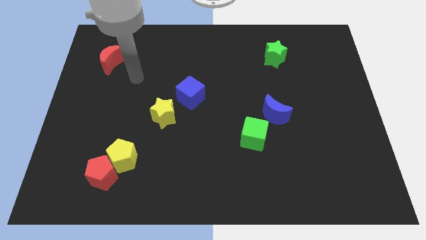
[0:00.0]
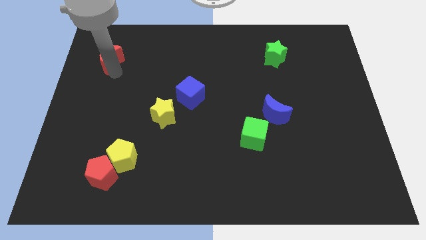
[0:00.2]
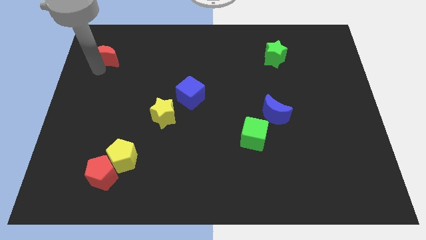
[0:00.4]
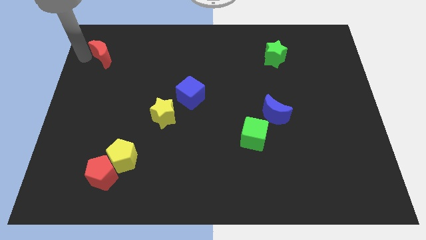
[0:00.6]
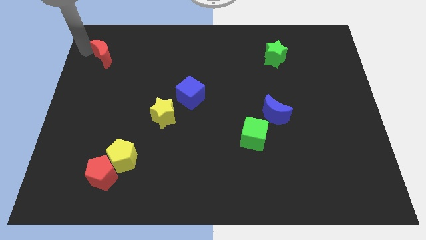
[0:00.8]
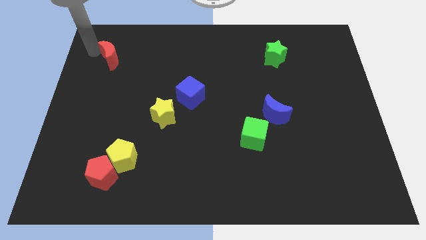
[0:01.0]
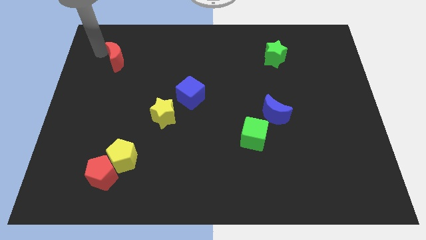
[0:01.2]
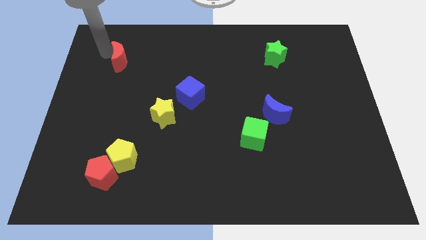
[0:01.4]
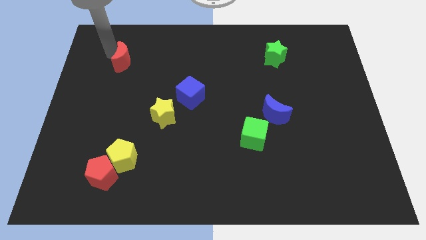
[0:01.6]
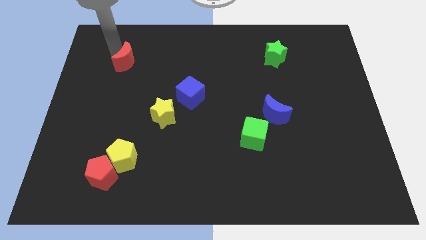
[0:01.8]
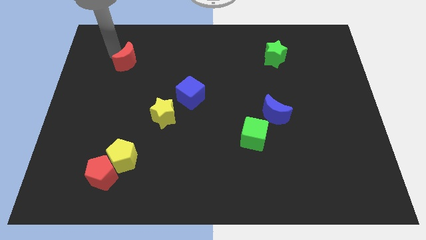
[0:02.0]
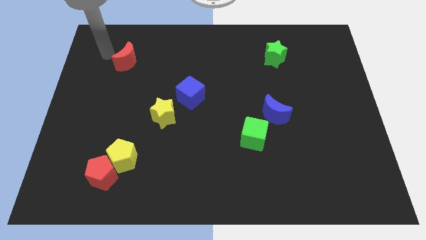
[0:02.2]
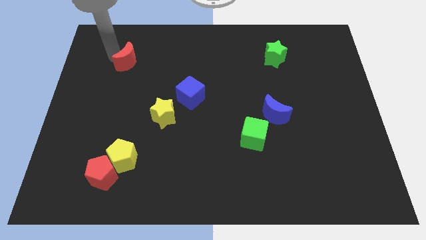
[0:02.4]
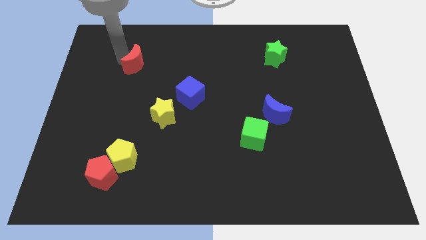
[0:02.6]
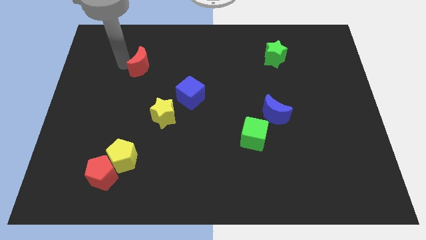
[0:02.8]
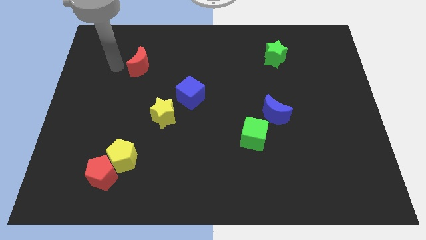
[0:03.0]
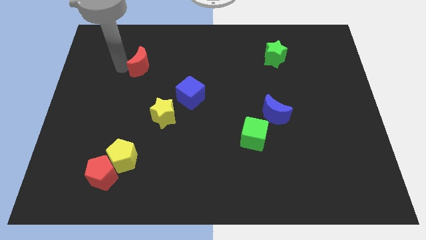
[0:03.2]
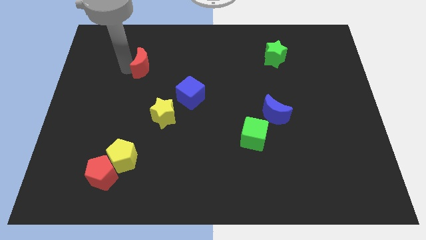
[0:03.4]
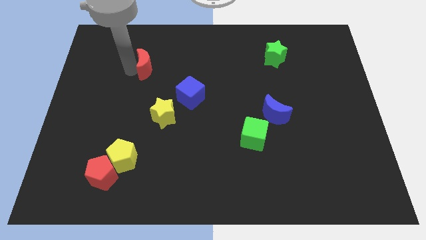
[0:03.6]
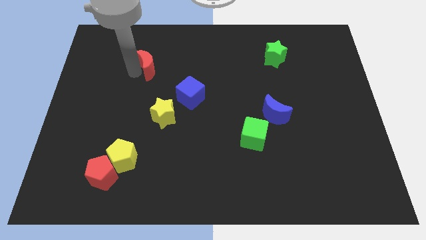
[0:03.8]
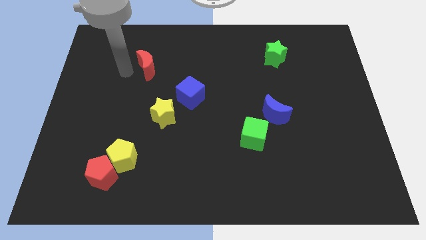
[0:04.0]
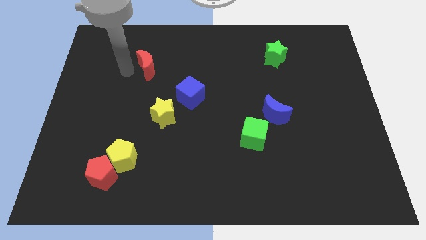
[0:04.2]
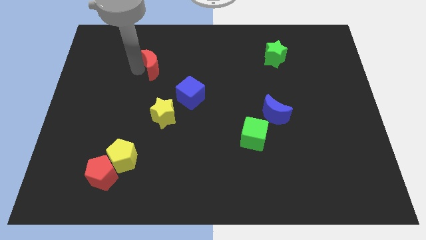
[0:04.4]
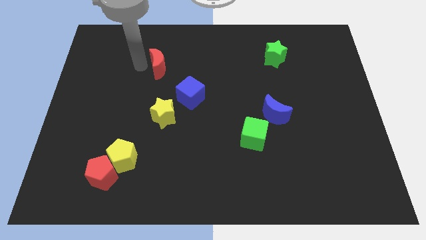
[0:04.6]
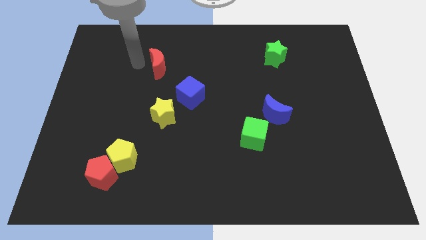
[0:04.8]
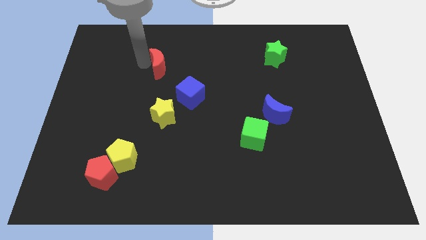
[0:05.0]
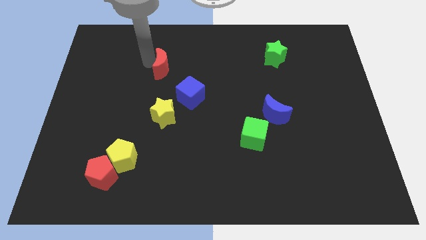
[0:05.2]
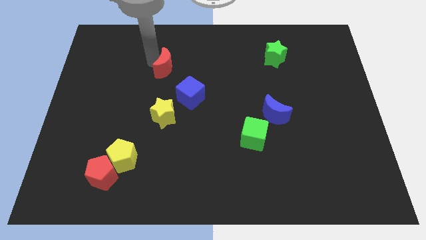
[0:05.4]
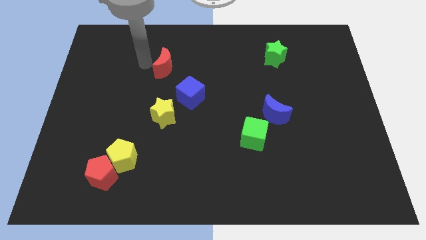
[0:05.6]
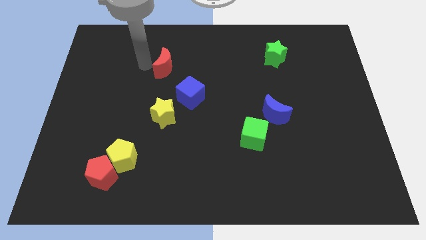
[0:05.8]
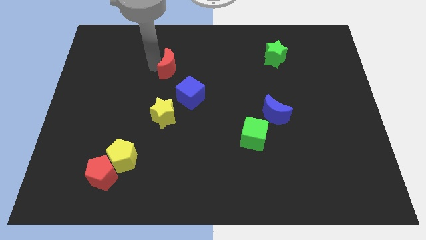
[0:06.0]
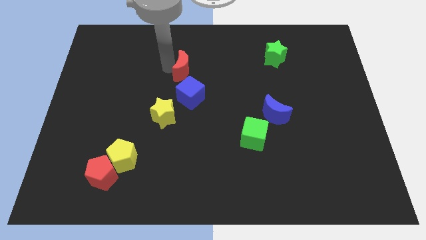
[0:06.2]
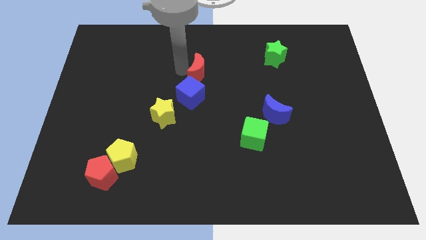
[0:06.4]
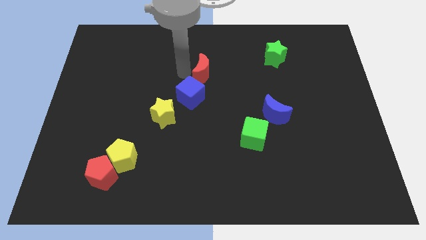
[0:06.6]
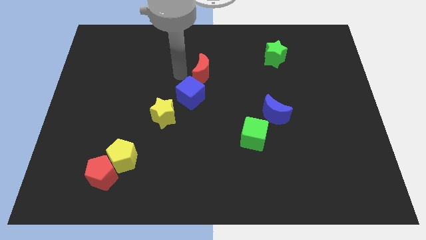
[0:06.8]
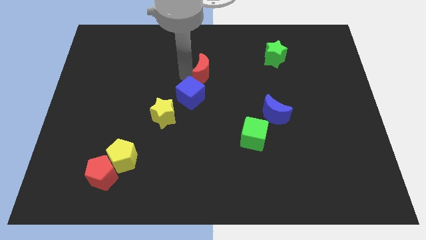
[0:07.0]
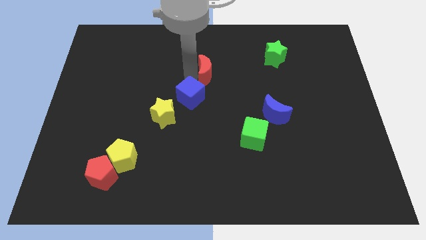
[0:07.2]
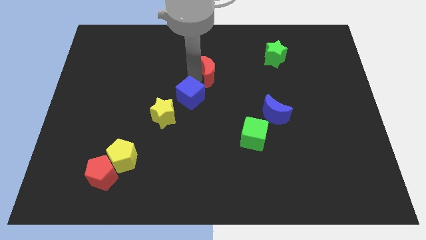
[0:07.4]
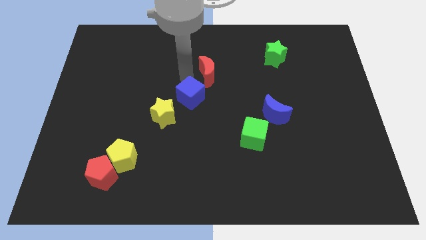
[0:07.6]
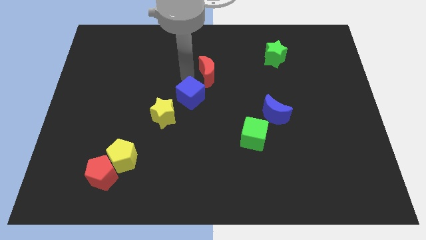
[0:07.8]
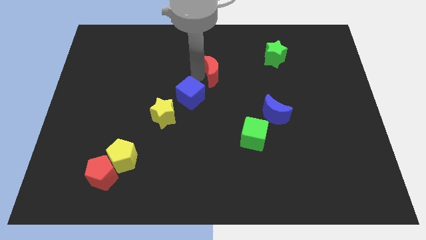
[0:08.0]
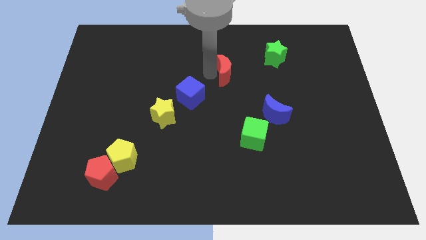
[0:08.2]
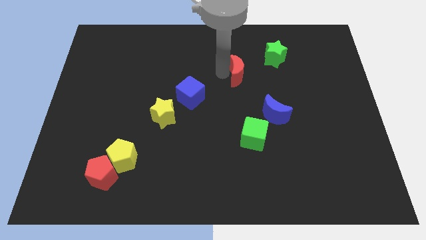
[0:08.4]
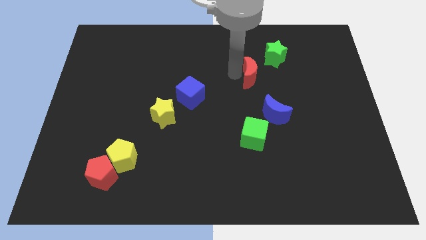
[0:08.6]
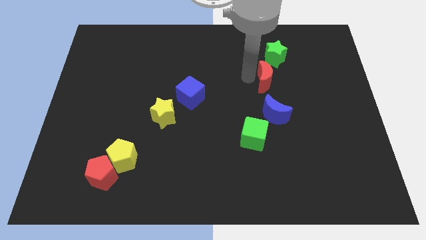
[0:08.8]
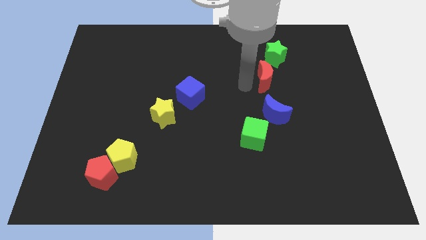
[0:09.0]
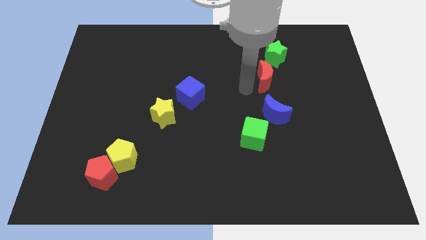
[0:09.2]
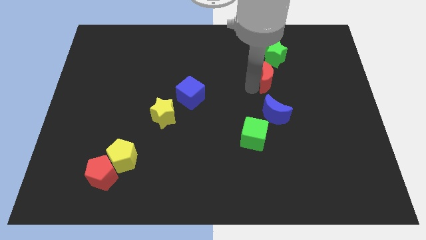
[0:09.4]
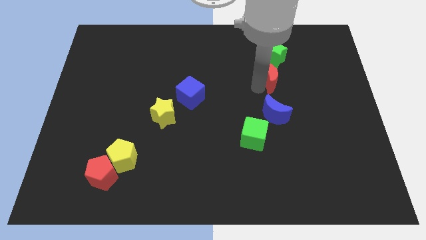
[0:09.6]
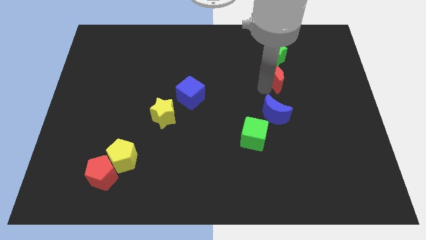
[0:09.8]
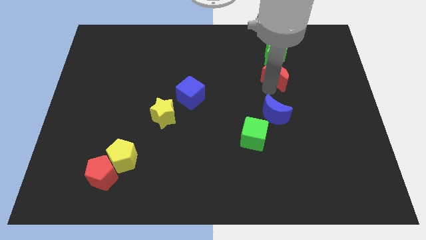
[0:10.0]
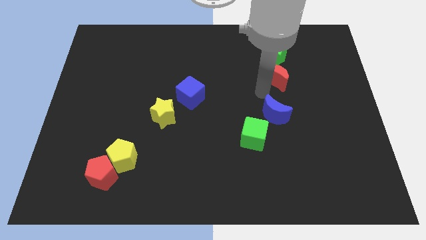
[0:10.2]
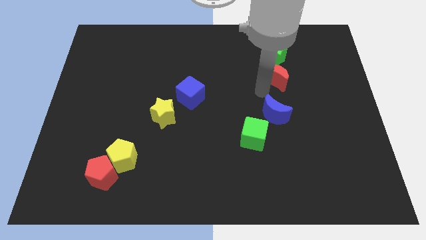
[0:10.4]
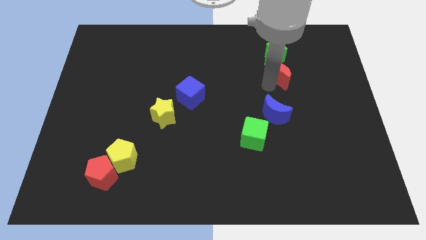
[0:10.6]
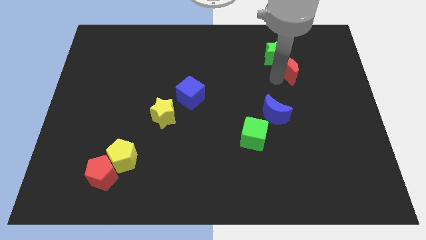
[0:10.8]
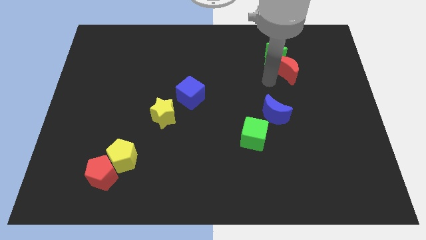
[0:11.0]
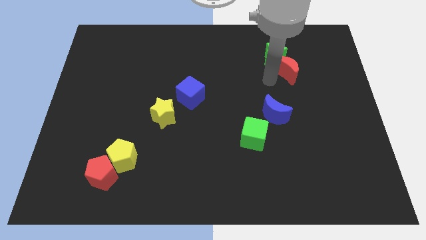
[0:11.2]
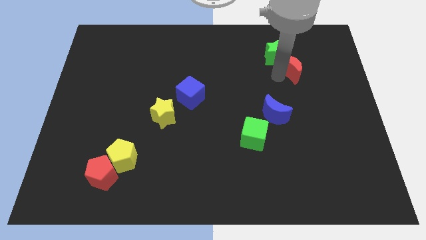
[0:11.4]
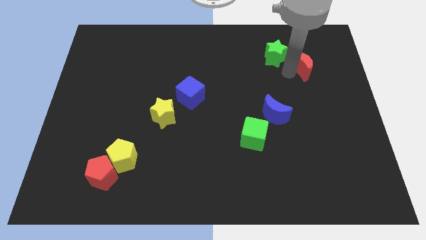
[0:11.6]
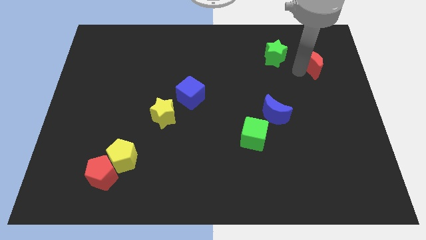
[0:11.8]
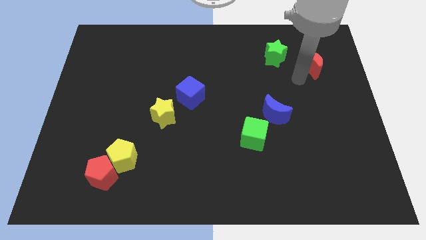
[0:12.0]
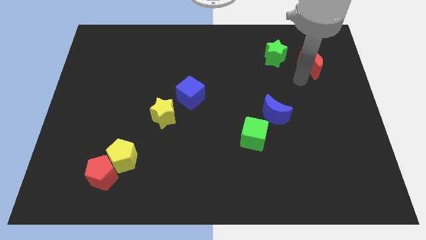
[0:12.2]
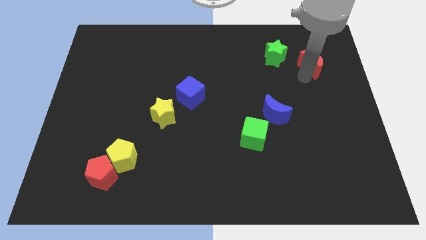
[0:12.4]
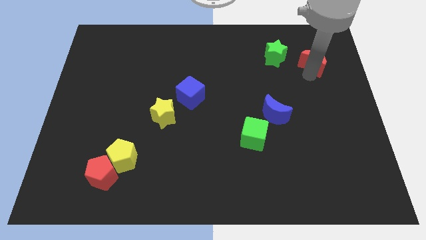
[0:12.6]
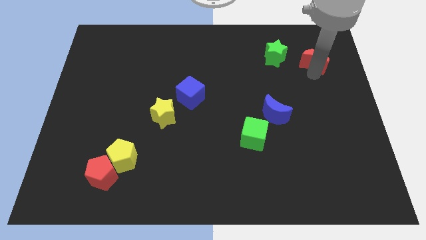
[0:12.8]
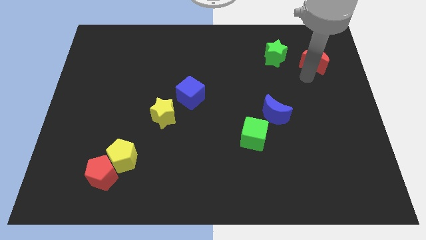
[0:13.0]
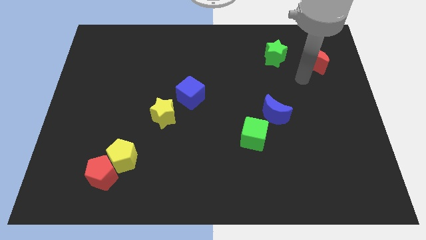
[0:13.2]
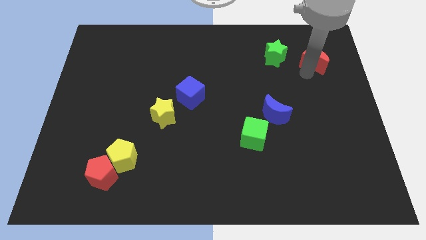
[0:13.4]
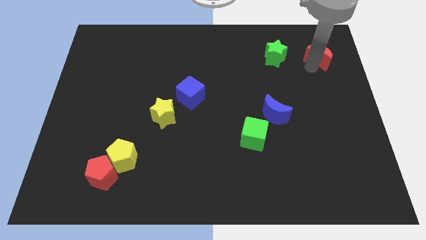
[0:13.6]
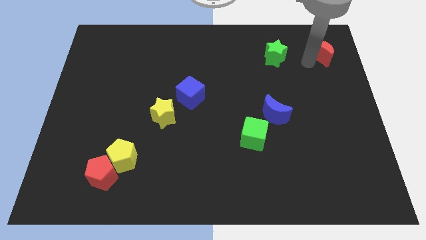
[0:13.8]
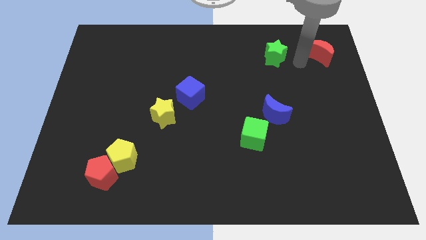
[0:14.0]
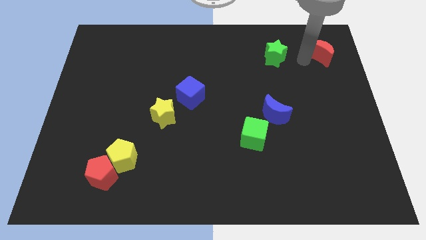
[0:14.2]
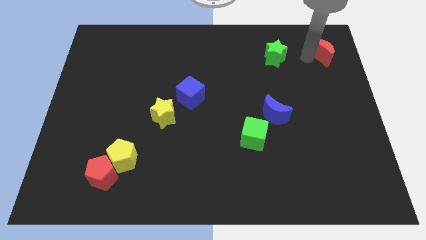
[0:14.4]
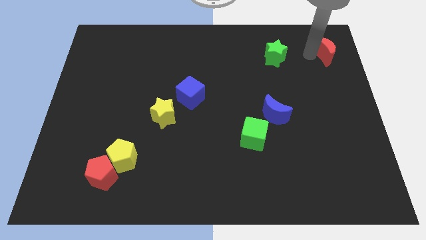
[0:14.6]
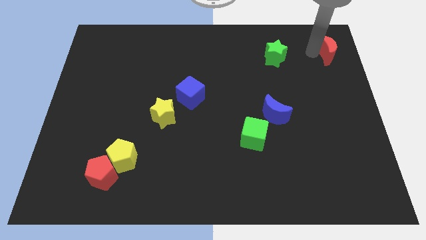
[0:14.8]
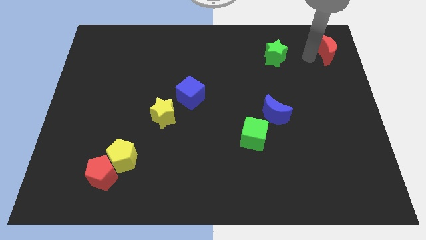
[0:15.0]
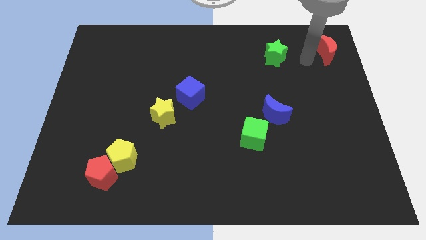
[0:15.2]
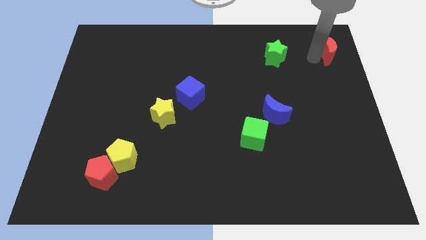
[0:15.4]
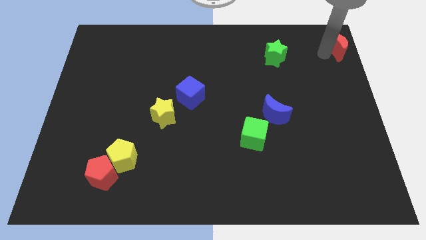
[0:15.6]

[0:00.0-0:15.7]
slide the red moon to the top right
